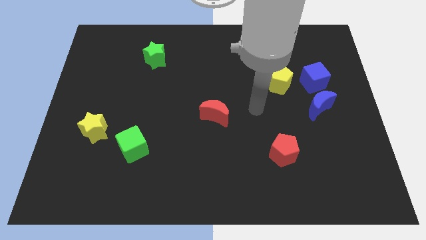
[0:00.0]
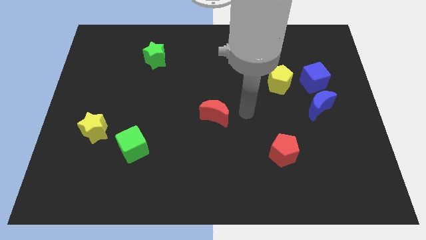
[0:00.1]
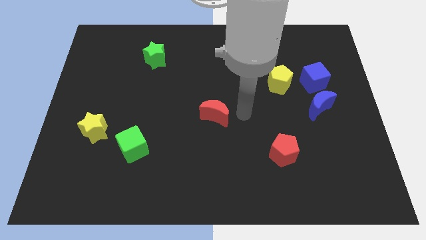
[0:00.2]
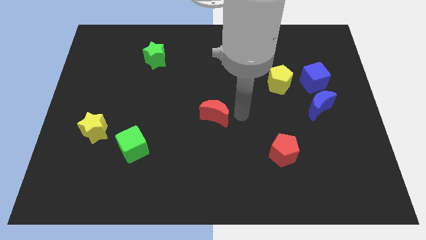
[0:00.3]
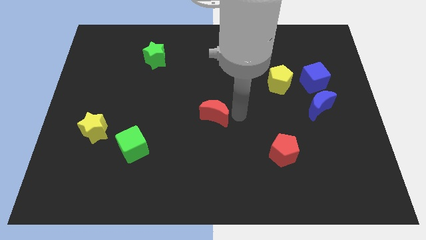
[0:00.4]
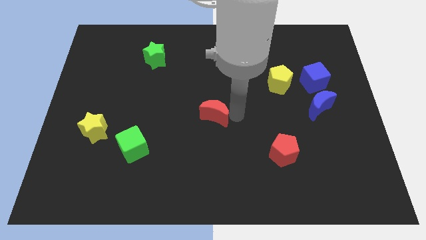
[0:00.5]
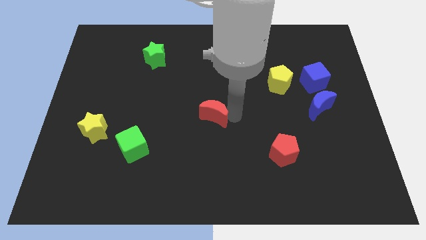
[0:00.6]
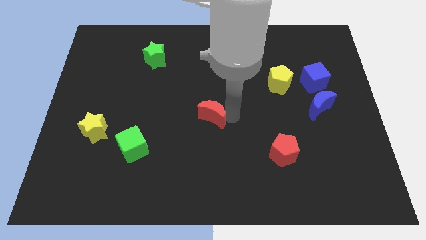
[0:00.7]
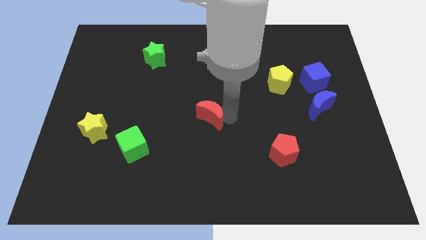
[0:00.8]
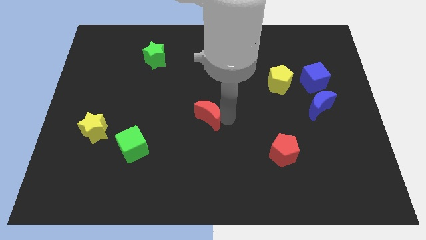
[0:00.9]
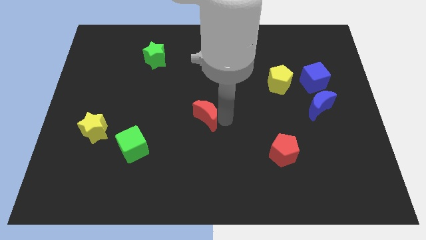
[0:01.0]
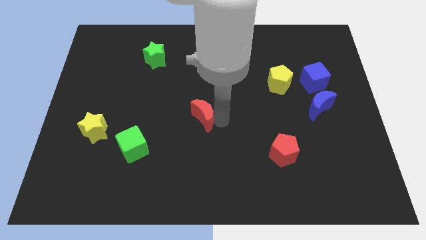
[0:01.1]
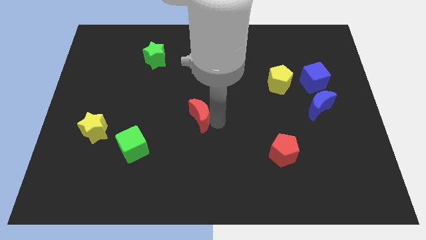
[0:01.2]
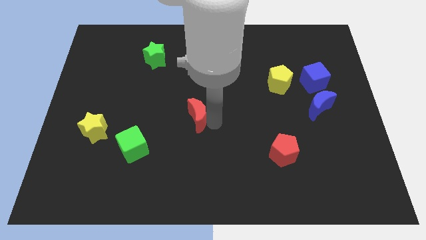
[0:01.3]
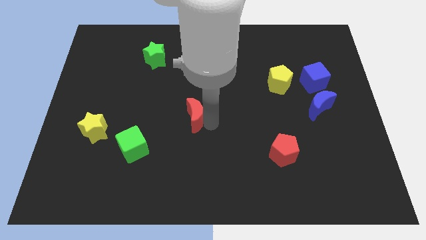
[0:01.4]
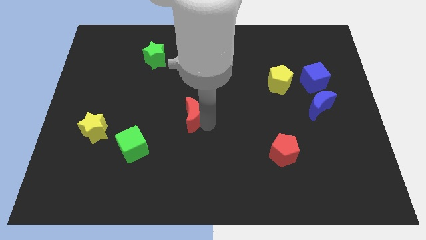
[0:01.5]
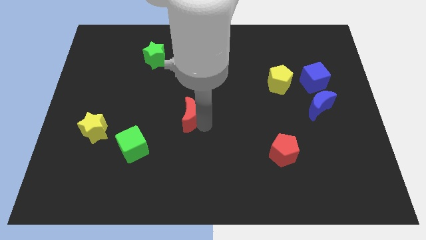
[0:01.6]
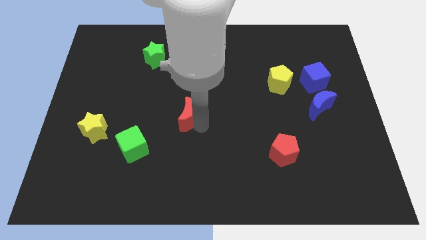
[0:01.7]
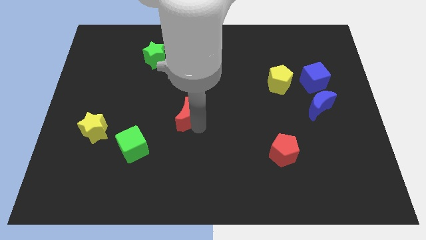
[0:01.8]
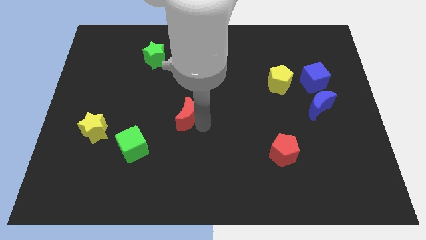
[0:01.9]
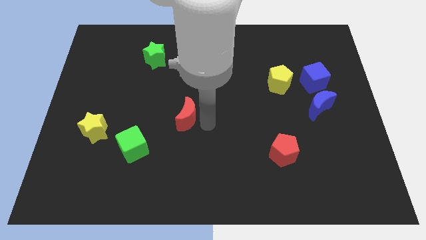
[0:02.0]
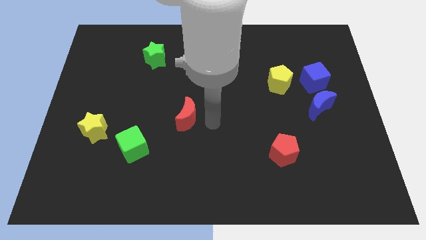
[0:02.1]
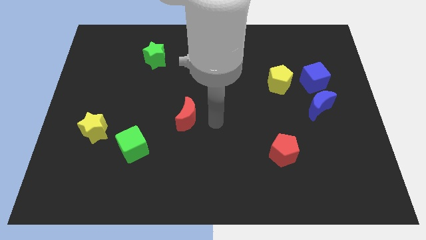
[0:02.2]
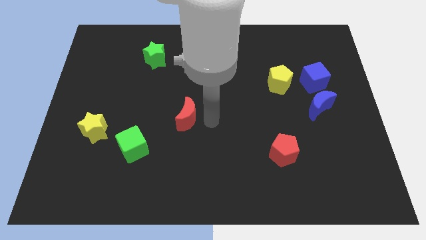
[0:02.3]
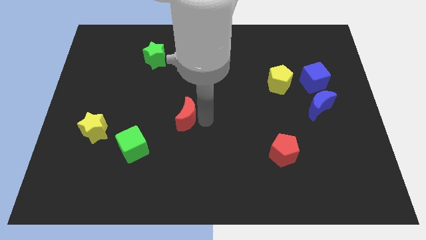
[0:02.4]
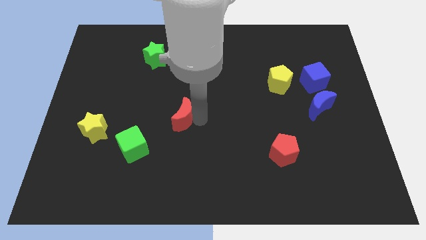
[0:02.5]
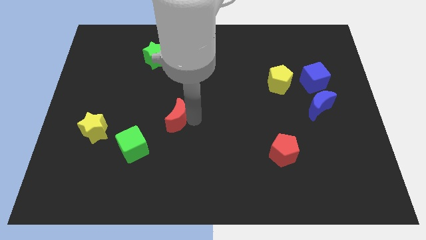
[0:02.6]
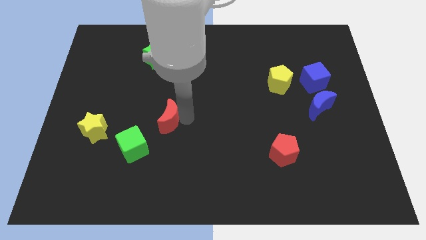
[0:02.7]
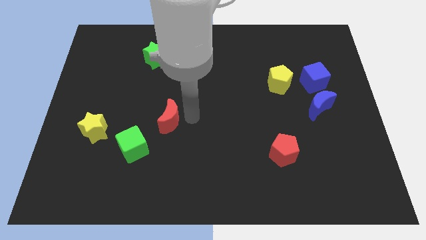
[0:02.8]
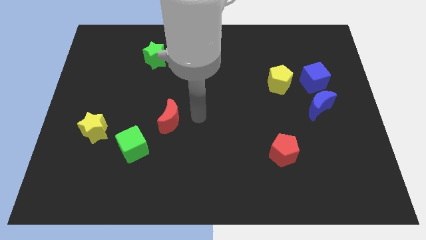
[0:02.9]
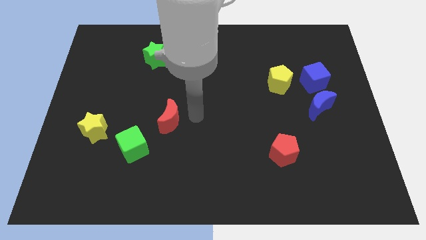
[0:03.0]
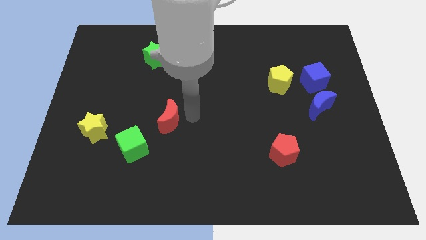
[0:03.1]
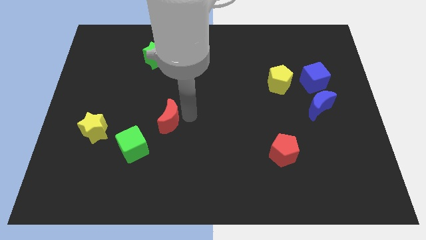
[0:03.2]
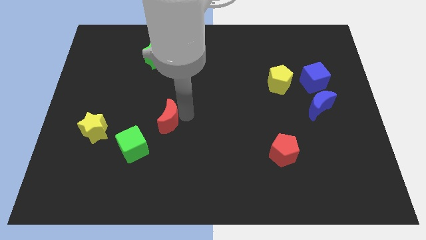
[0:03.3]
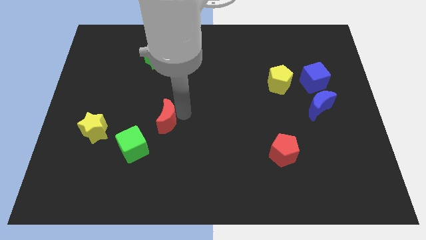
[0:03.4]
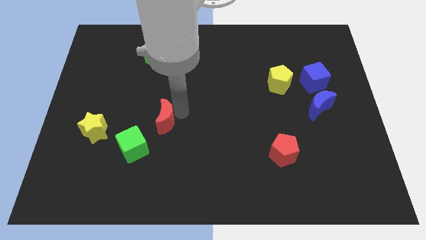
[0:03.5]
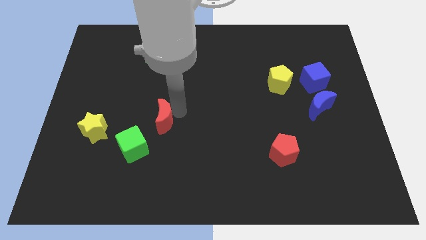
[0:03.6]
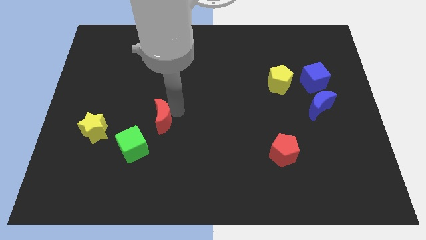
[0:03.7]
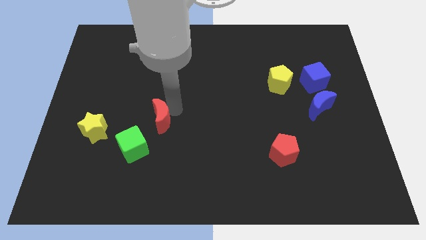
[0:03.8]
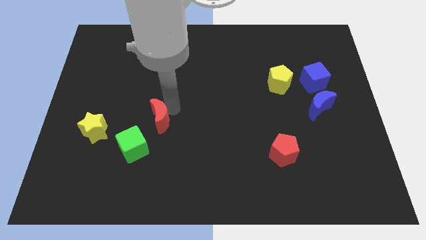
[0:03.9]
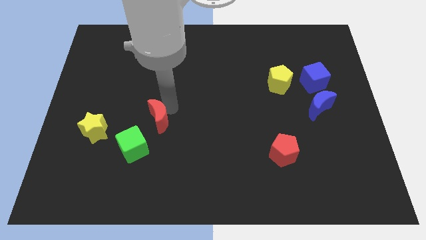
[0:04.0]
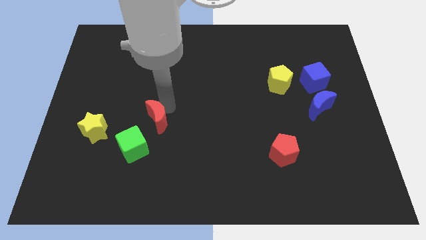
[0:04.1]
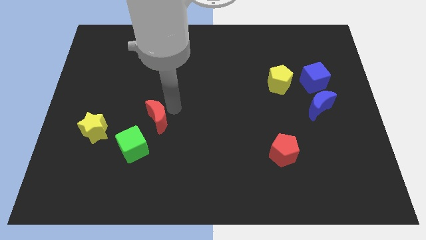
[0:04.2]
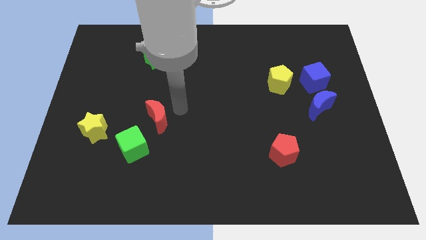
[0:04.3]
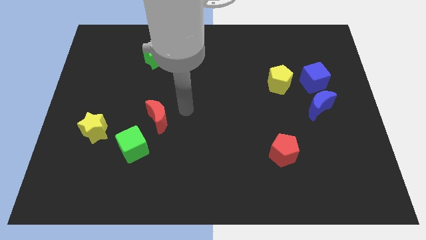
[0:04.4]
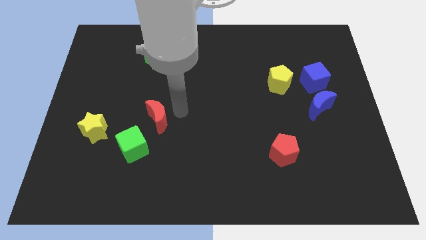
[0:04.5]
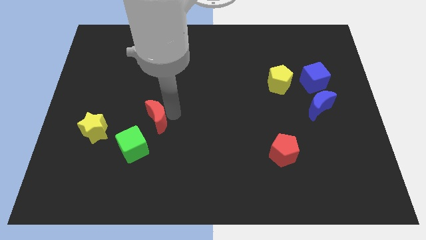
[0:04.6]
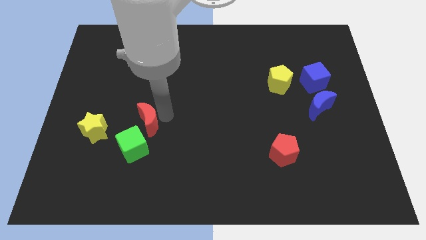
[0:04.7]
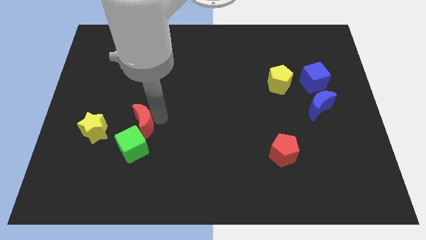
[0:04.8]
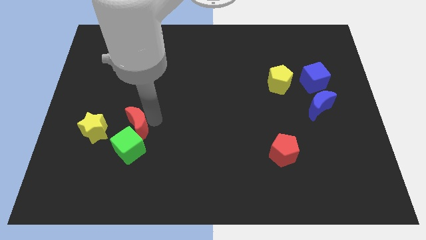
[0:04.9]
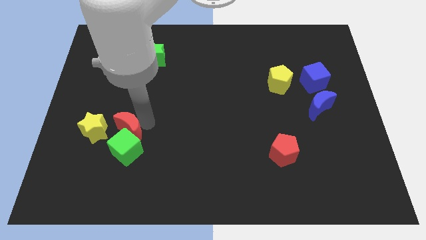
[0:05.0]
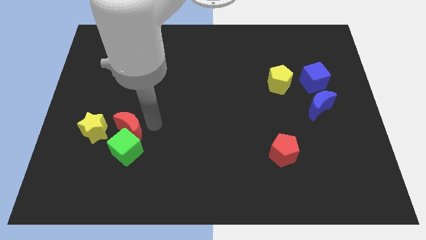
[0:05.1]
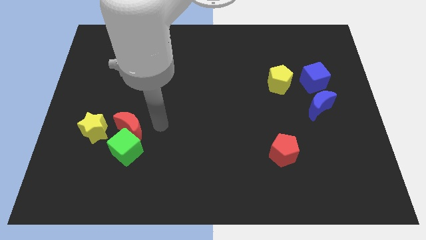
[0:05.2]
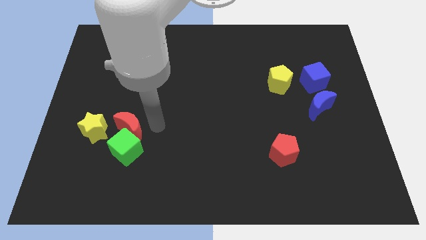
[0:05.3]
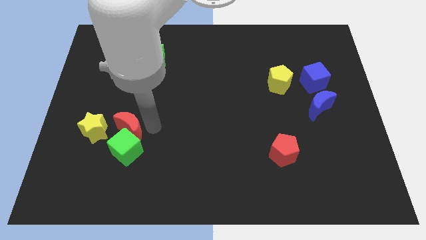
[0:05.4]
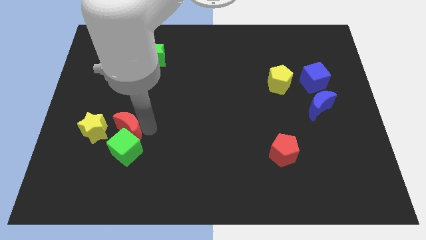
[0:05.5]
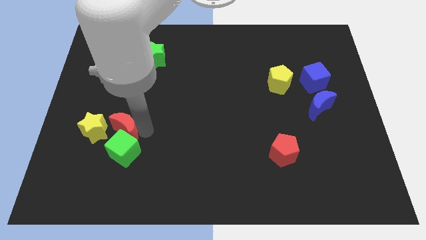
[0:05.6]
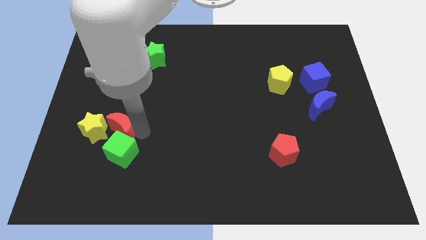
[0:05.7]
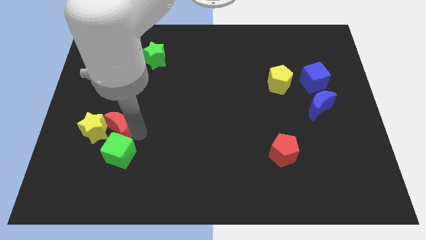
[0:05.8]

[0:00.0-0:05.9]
move the red moon towards the yellow star

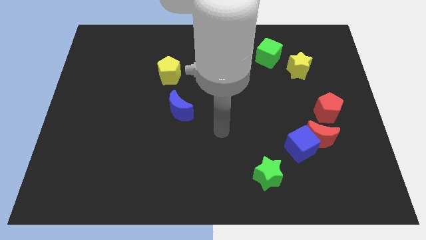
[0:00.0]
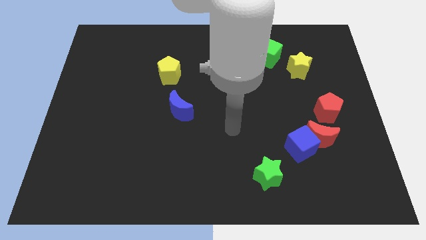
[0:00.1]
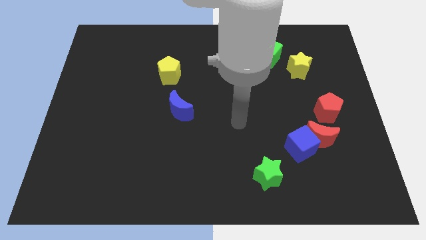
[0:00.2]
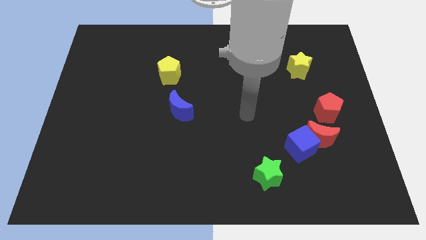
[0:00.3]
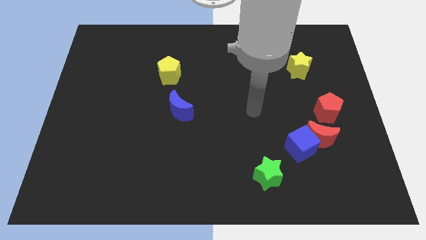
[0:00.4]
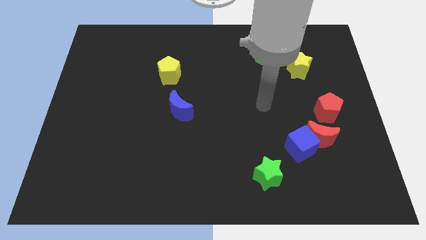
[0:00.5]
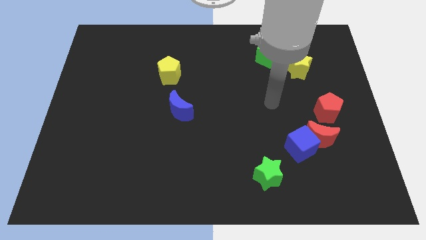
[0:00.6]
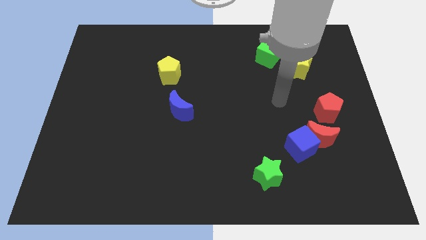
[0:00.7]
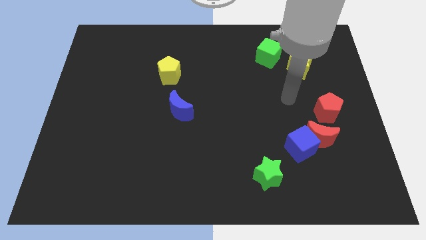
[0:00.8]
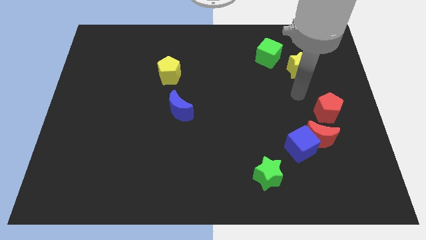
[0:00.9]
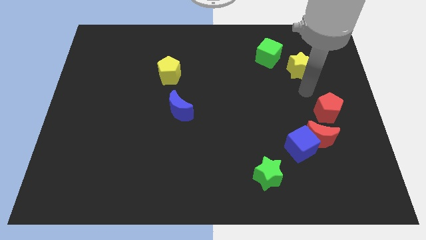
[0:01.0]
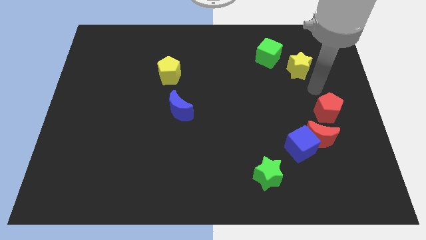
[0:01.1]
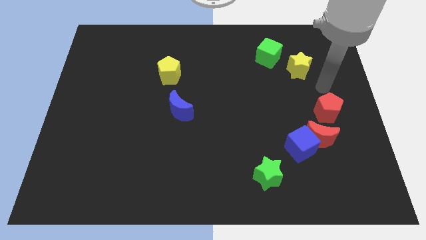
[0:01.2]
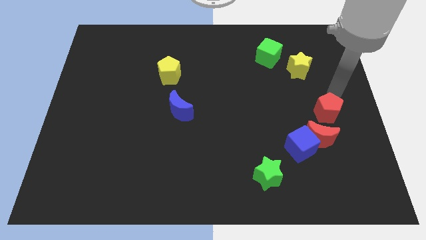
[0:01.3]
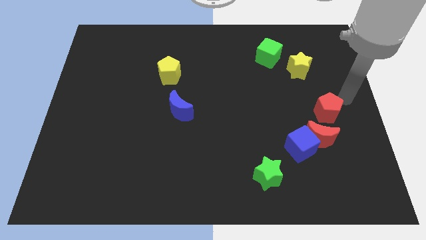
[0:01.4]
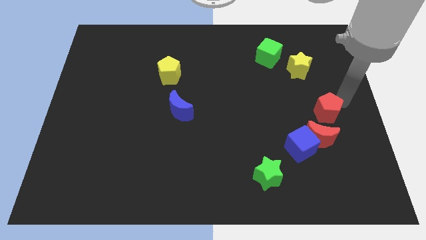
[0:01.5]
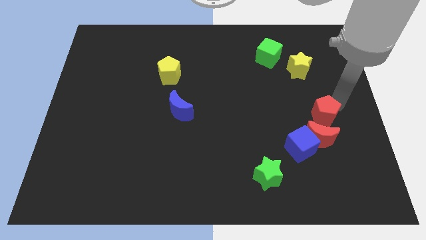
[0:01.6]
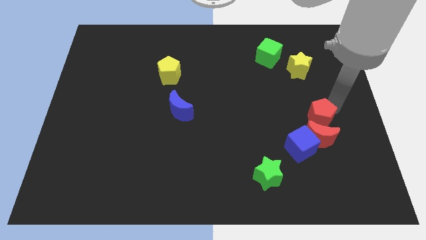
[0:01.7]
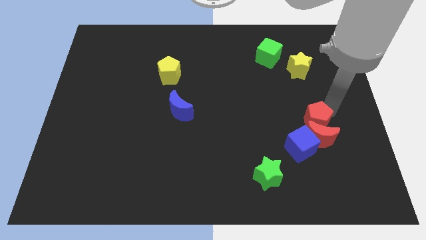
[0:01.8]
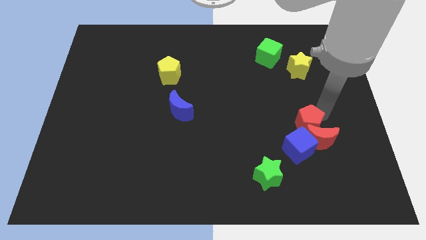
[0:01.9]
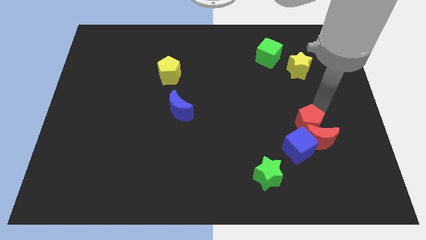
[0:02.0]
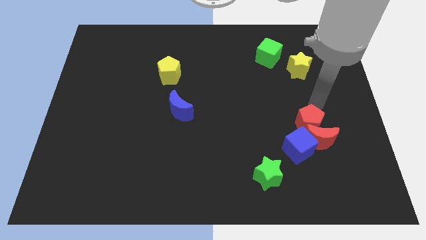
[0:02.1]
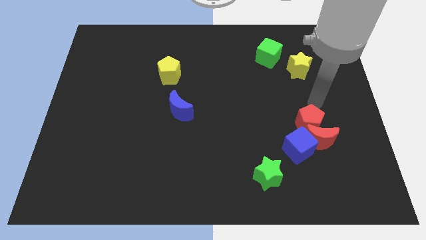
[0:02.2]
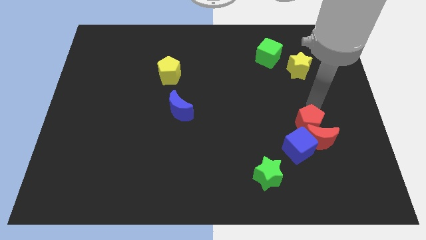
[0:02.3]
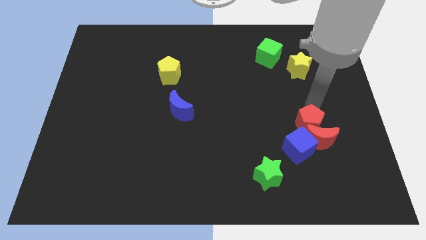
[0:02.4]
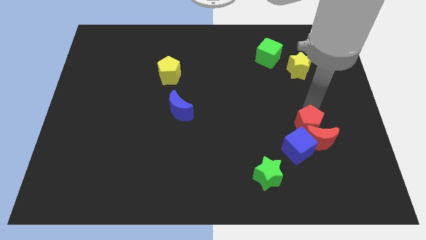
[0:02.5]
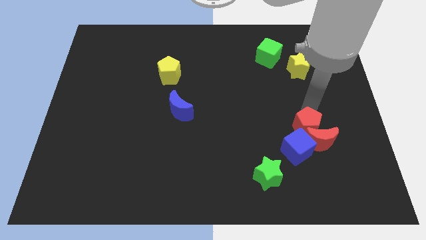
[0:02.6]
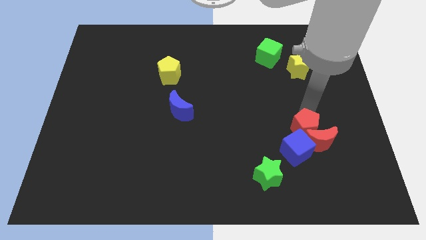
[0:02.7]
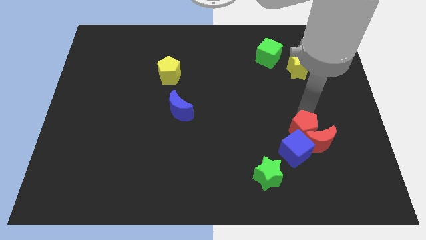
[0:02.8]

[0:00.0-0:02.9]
move the red pentagon to the blue cube
